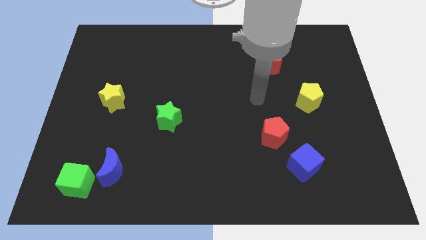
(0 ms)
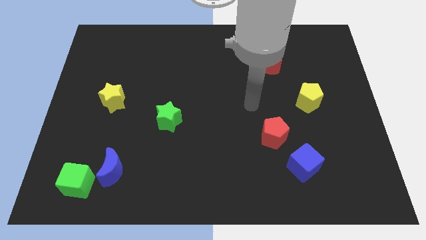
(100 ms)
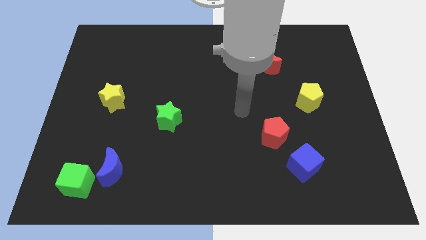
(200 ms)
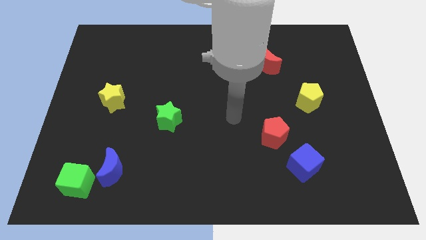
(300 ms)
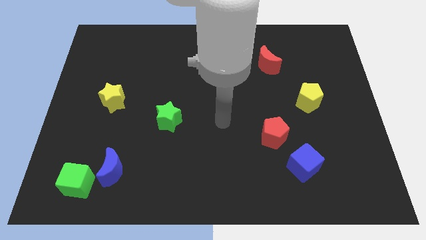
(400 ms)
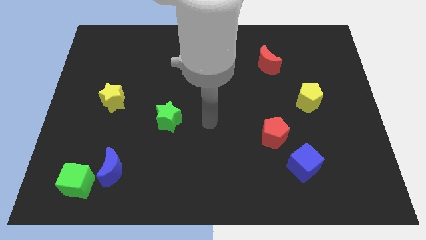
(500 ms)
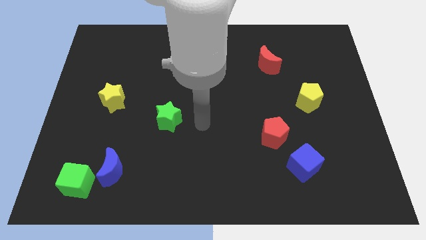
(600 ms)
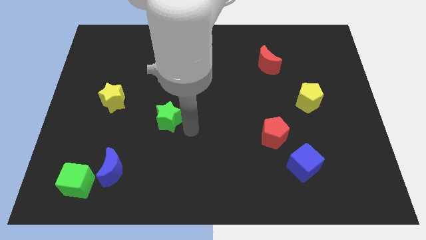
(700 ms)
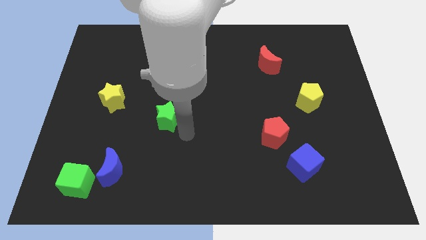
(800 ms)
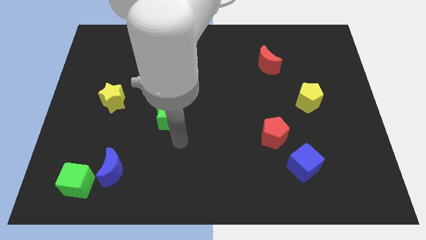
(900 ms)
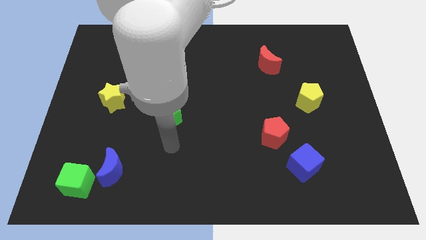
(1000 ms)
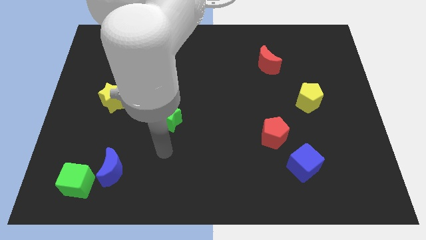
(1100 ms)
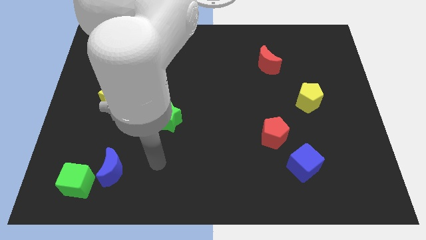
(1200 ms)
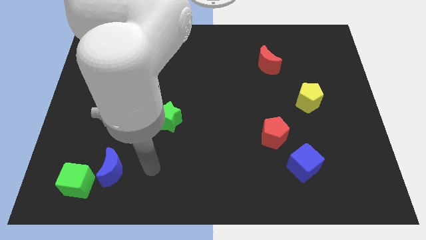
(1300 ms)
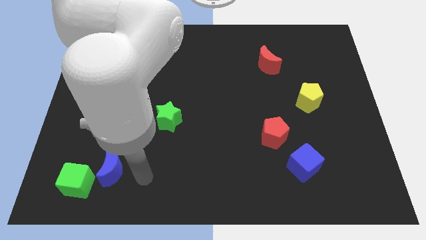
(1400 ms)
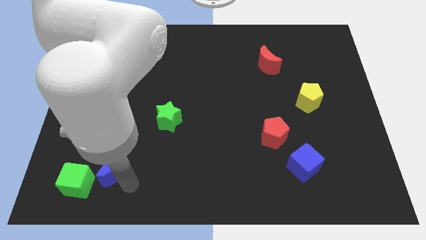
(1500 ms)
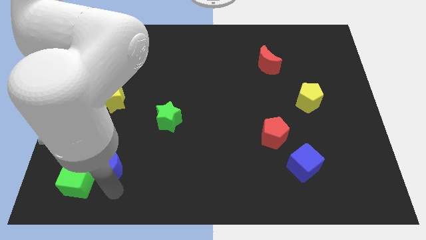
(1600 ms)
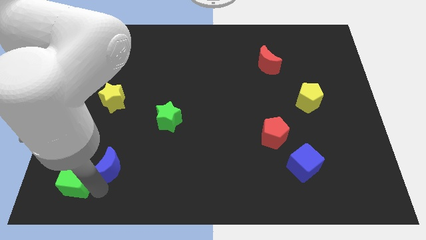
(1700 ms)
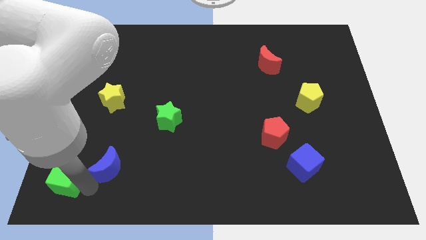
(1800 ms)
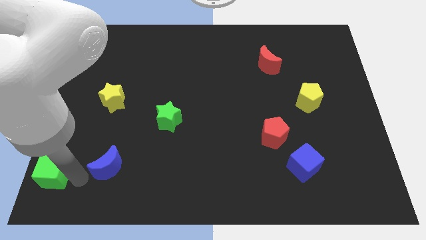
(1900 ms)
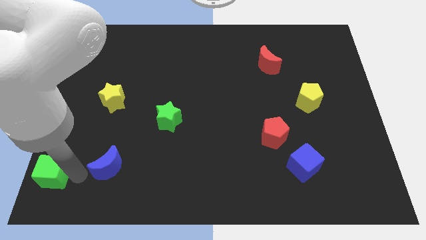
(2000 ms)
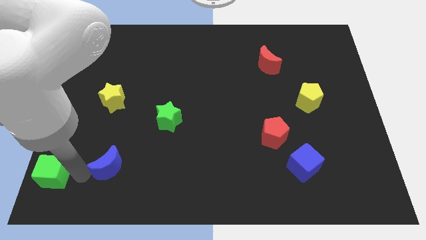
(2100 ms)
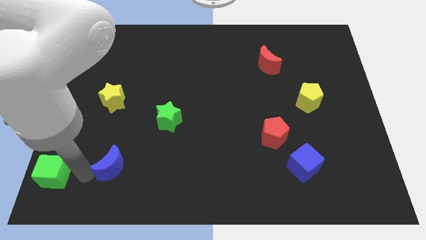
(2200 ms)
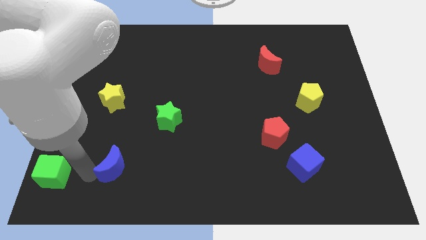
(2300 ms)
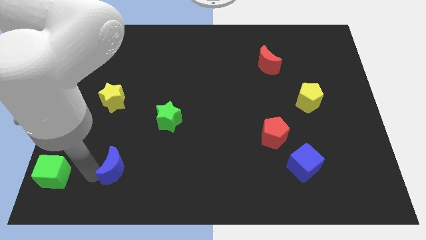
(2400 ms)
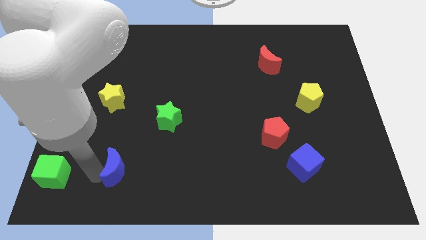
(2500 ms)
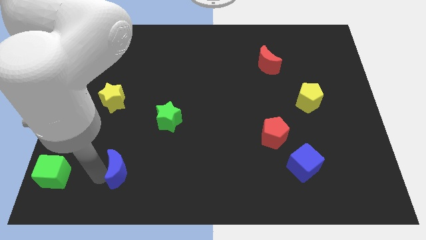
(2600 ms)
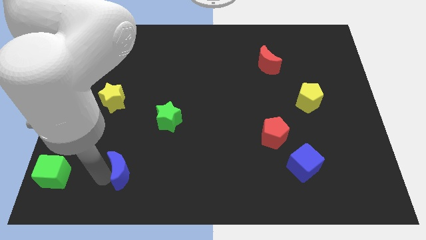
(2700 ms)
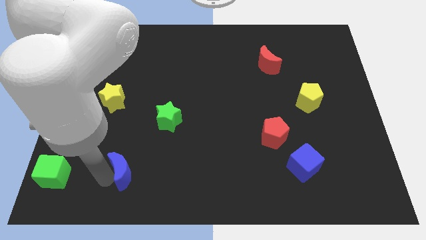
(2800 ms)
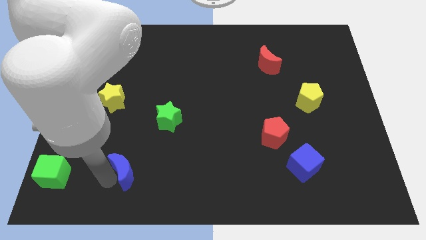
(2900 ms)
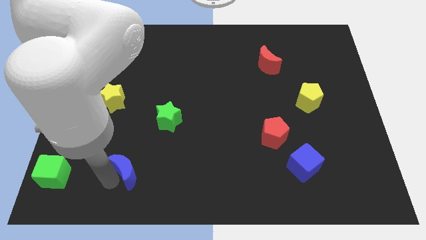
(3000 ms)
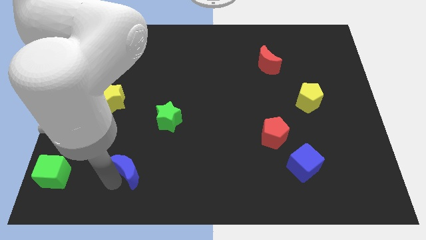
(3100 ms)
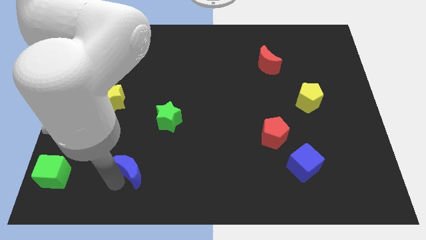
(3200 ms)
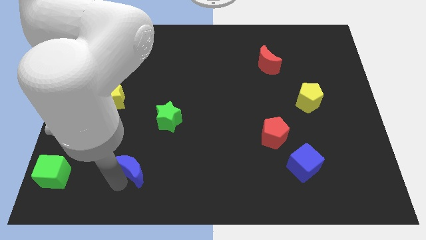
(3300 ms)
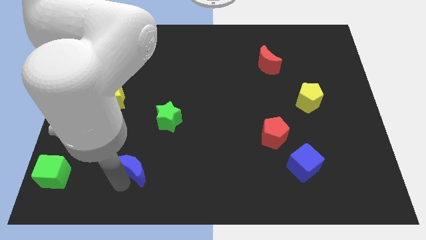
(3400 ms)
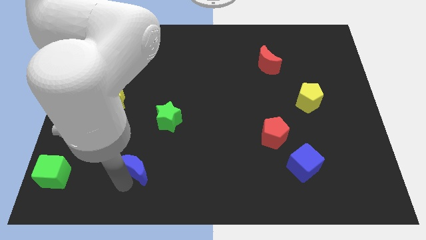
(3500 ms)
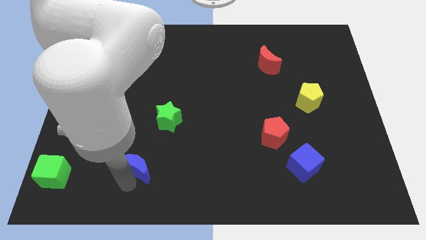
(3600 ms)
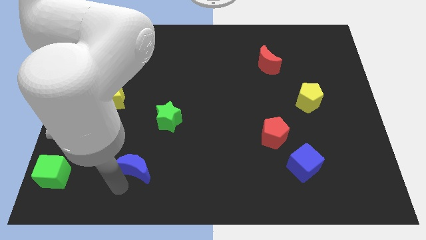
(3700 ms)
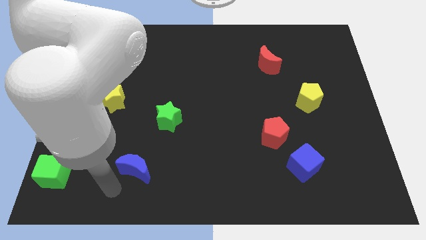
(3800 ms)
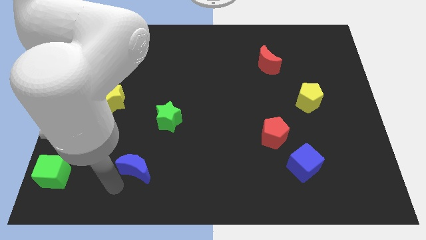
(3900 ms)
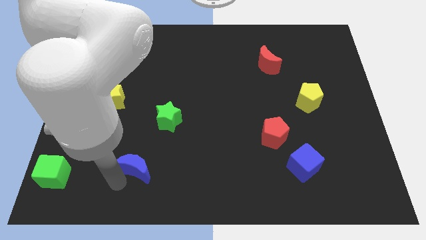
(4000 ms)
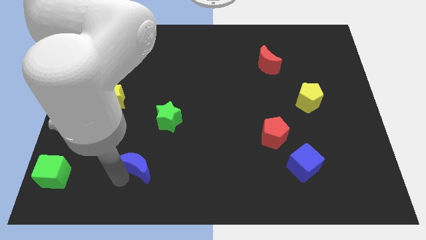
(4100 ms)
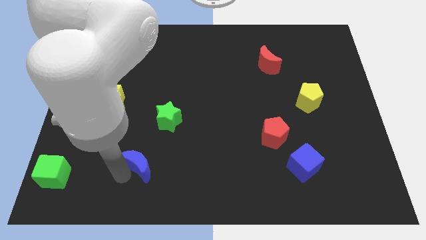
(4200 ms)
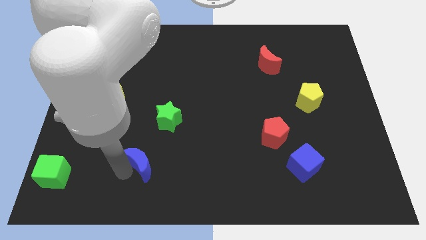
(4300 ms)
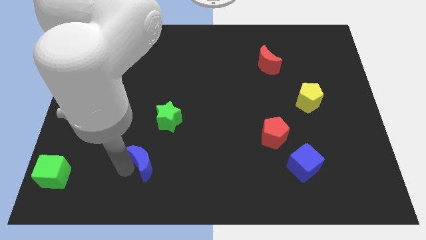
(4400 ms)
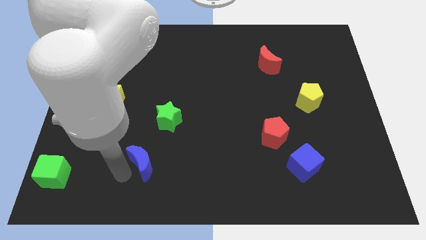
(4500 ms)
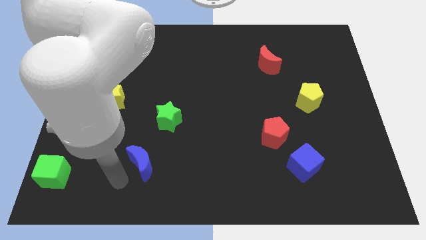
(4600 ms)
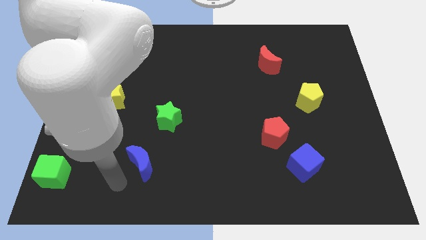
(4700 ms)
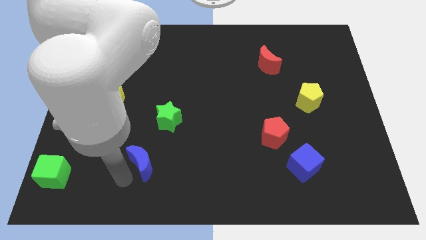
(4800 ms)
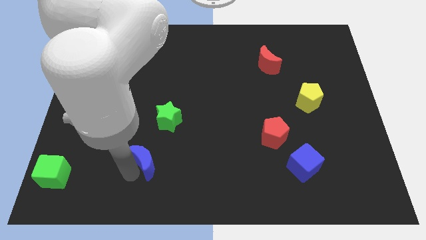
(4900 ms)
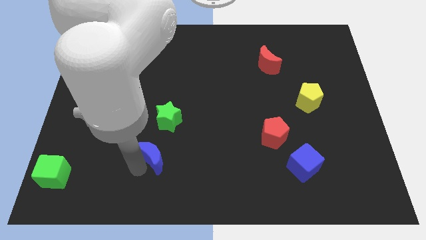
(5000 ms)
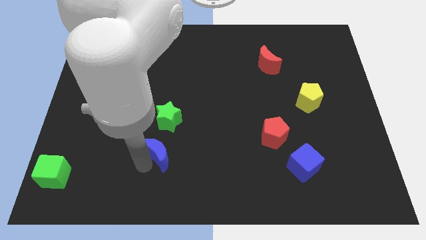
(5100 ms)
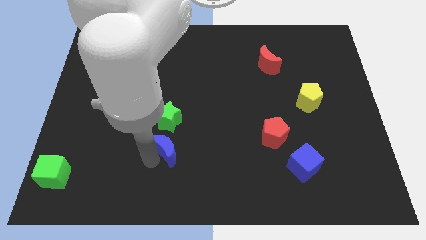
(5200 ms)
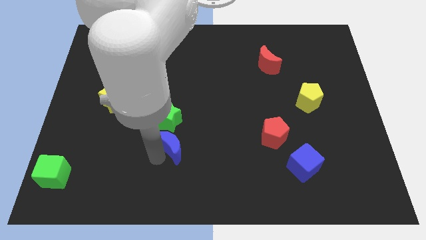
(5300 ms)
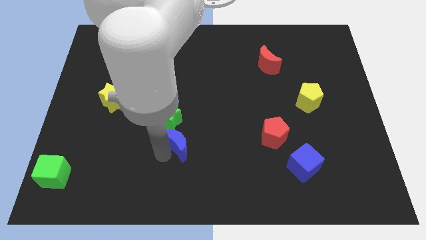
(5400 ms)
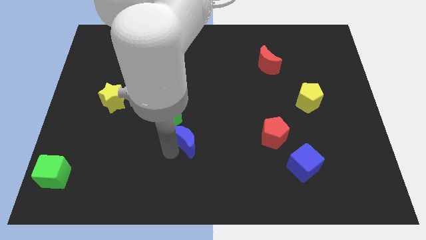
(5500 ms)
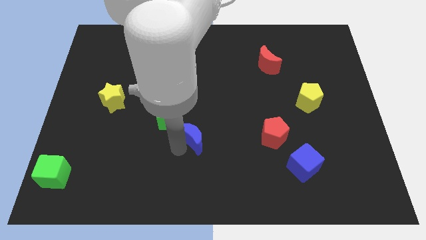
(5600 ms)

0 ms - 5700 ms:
push the blue moon to the center

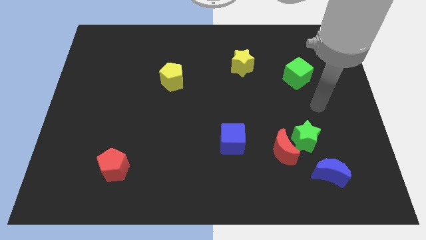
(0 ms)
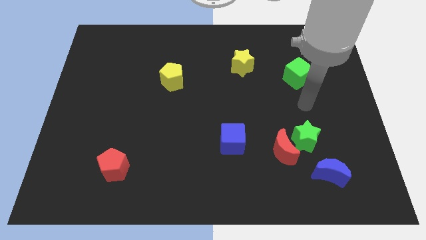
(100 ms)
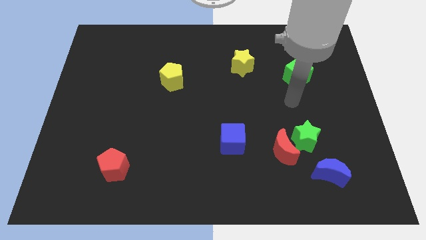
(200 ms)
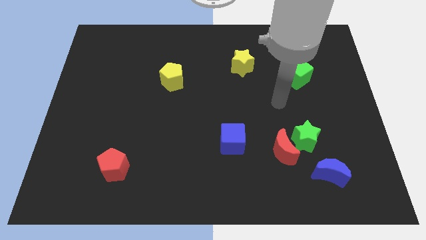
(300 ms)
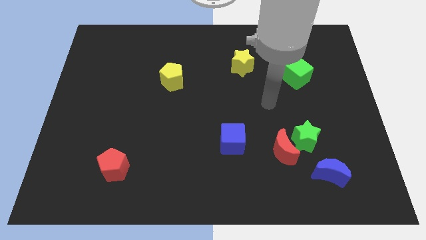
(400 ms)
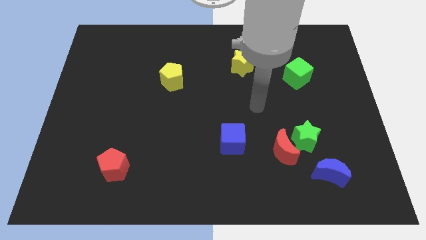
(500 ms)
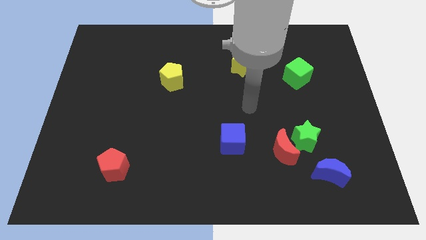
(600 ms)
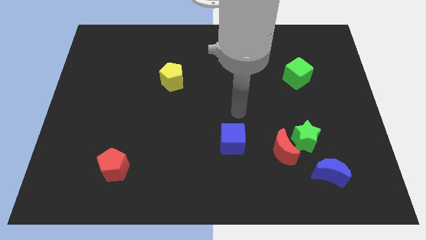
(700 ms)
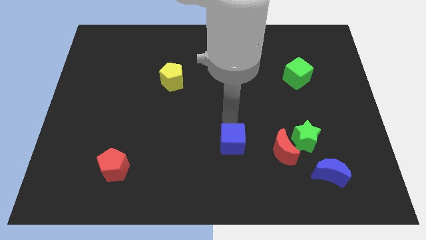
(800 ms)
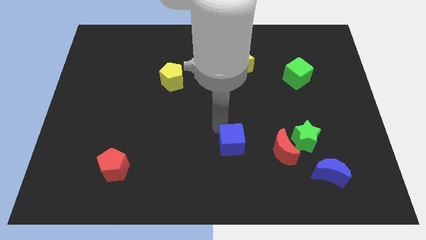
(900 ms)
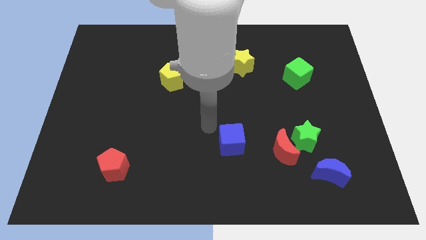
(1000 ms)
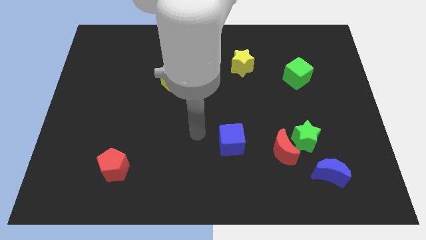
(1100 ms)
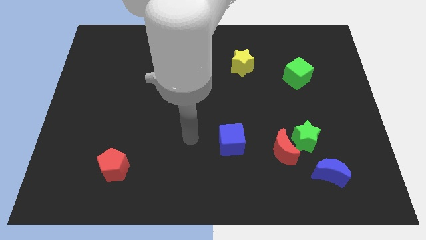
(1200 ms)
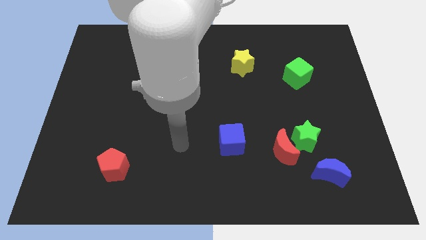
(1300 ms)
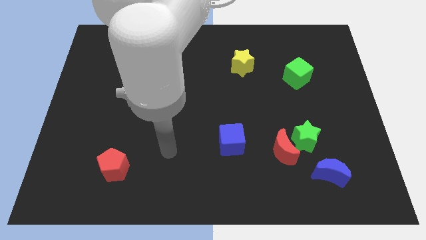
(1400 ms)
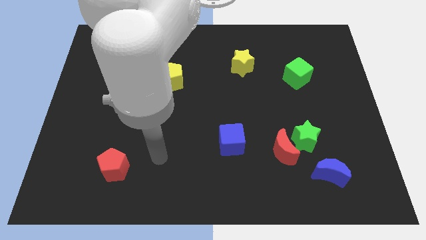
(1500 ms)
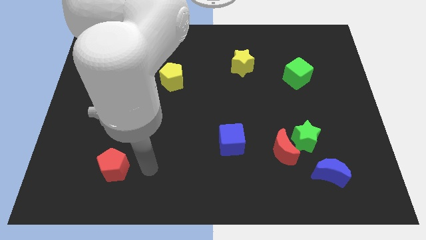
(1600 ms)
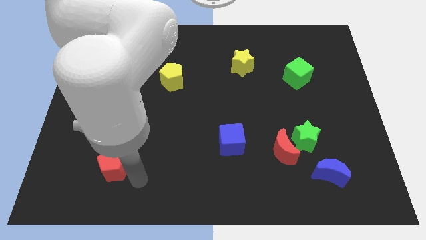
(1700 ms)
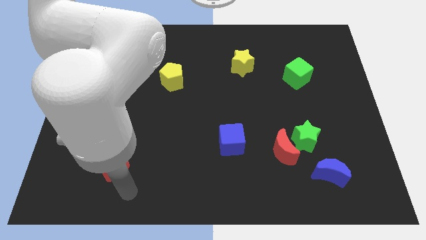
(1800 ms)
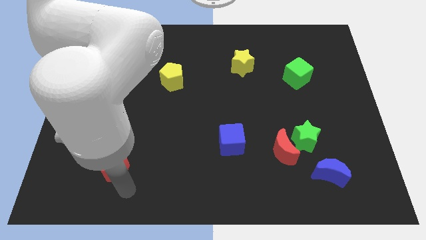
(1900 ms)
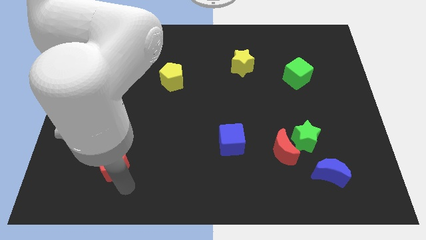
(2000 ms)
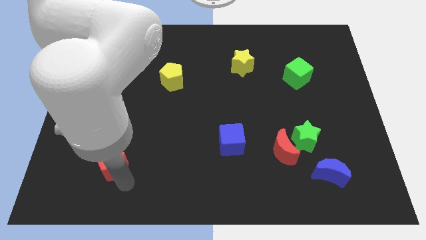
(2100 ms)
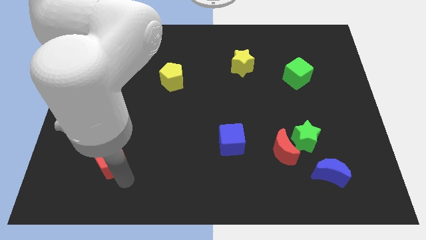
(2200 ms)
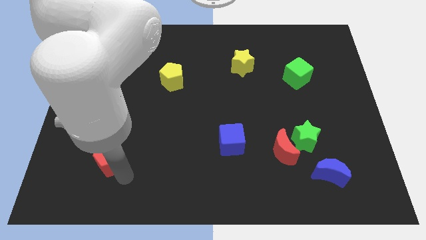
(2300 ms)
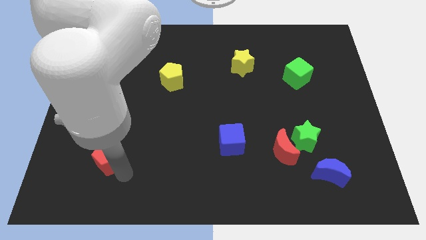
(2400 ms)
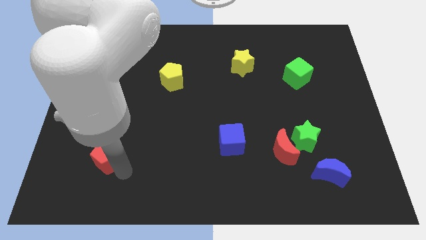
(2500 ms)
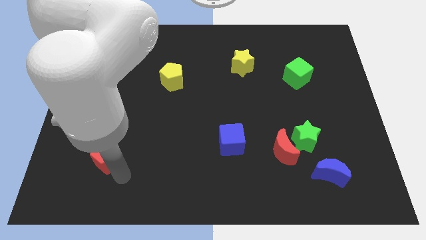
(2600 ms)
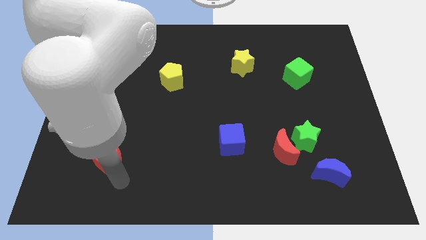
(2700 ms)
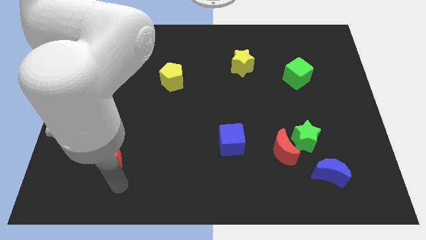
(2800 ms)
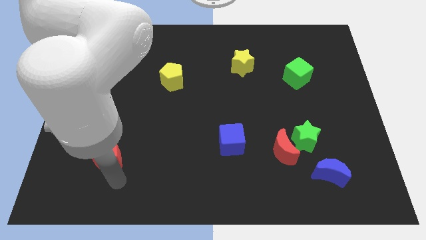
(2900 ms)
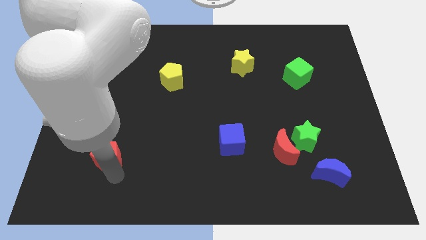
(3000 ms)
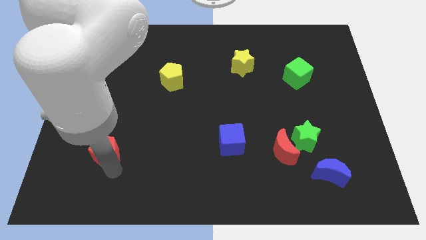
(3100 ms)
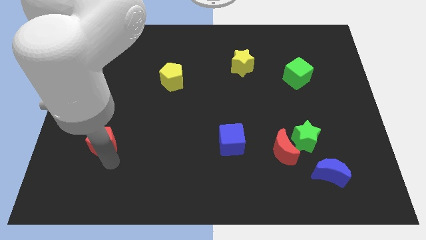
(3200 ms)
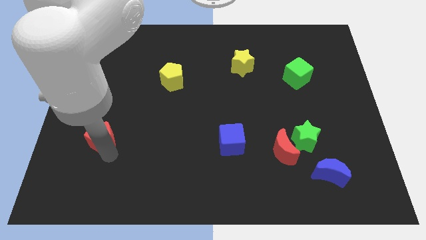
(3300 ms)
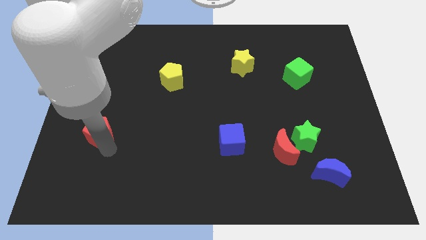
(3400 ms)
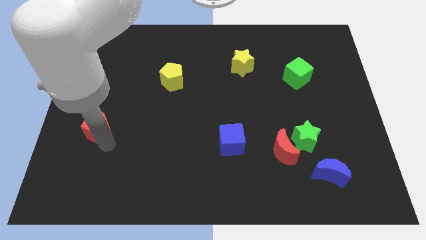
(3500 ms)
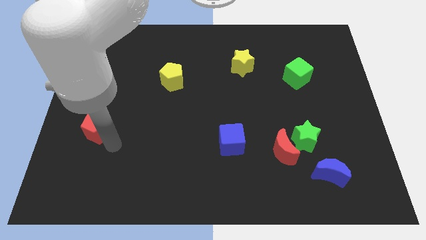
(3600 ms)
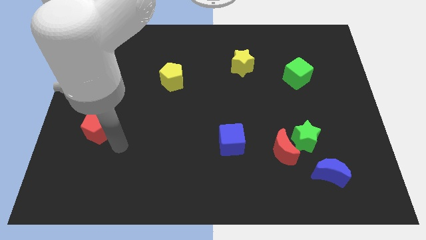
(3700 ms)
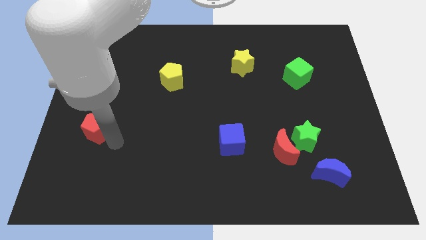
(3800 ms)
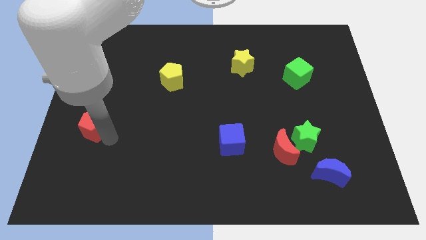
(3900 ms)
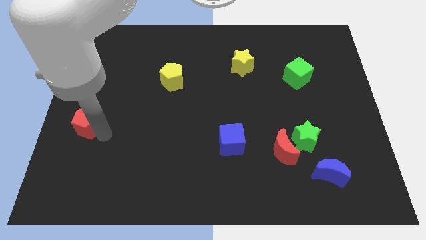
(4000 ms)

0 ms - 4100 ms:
move the red pentagon to the center left
